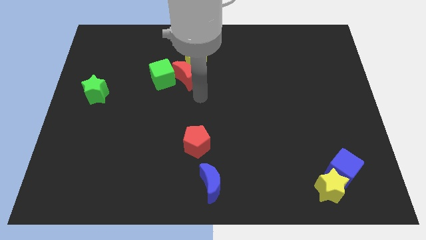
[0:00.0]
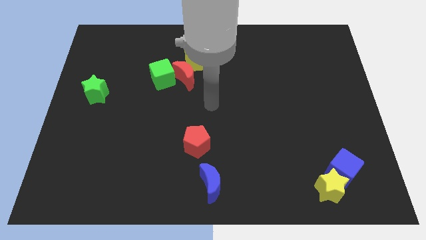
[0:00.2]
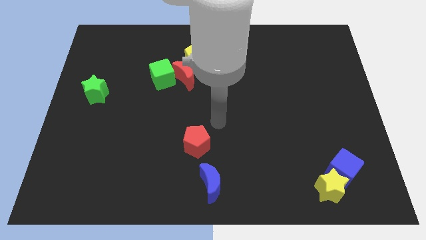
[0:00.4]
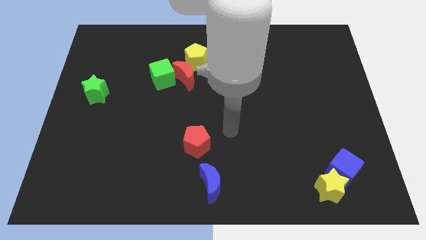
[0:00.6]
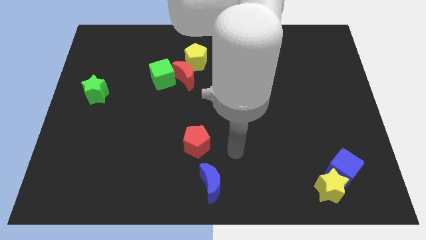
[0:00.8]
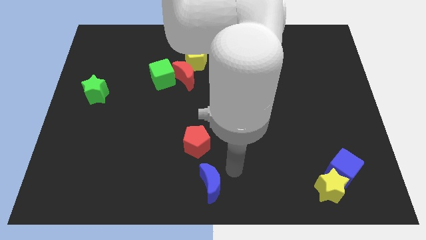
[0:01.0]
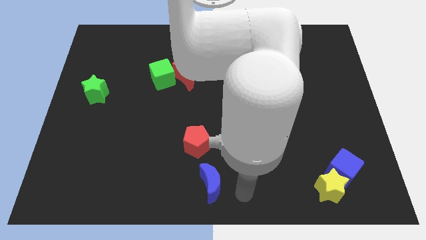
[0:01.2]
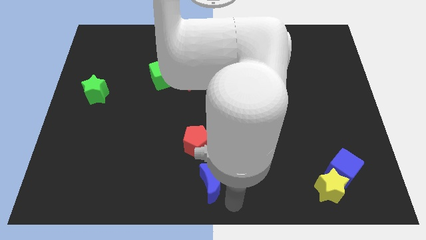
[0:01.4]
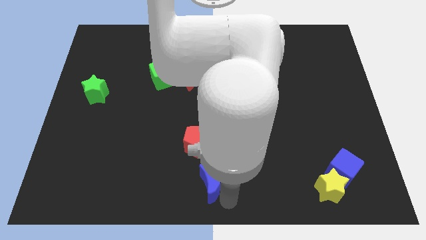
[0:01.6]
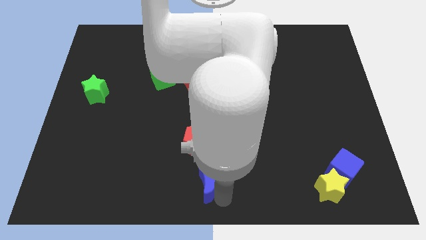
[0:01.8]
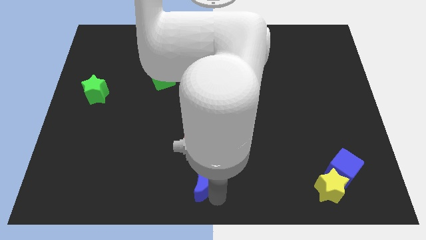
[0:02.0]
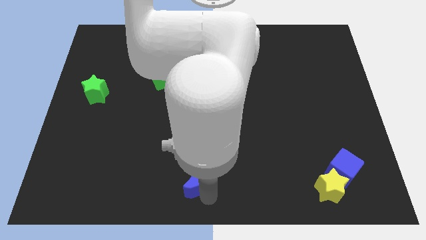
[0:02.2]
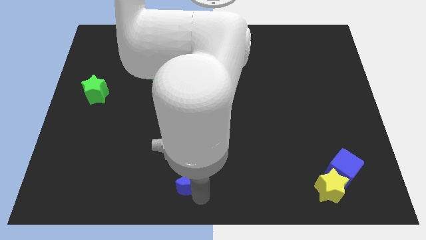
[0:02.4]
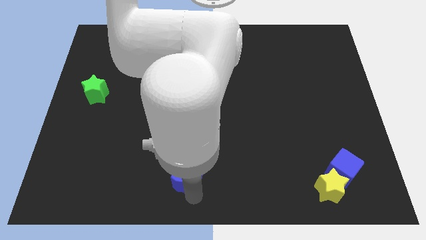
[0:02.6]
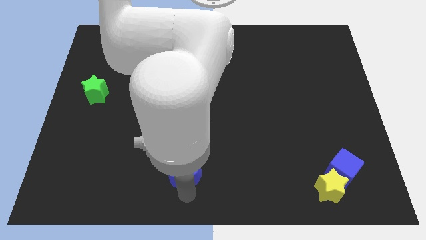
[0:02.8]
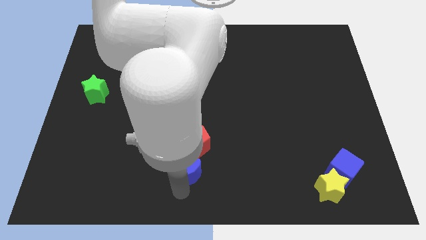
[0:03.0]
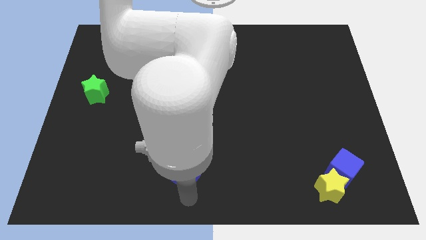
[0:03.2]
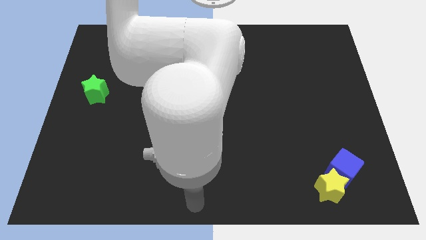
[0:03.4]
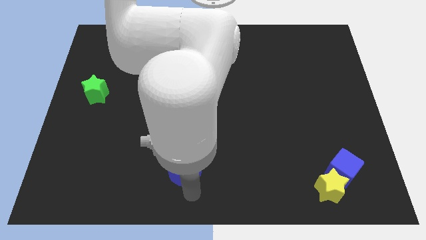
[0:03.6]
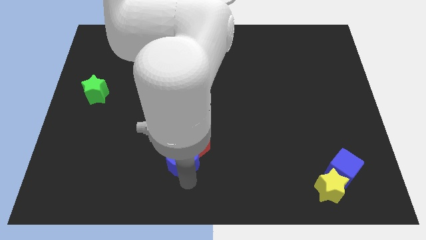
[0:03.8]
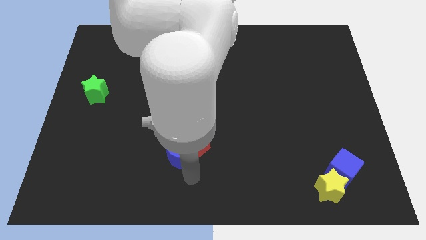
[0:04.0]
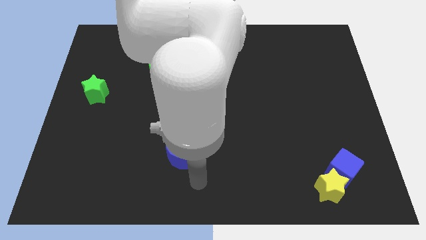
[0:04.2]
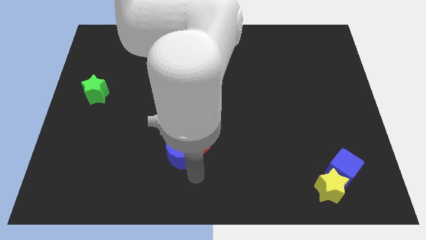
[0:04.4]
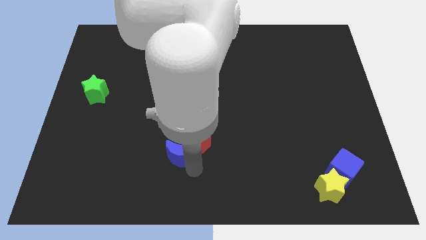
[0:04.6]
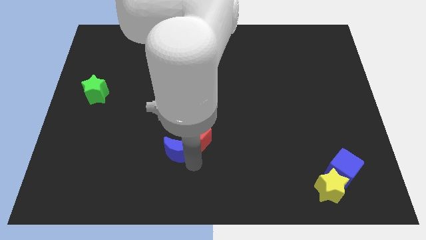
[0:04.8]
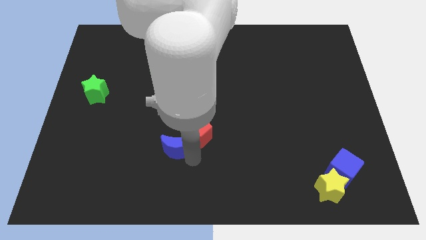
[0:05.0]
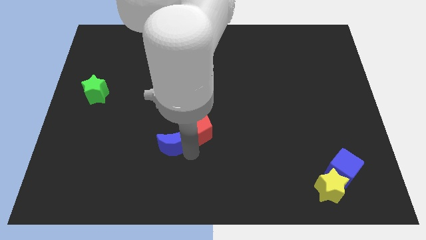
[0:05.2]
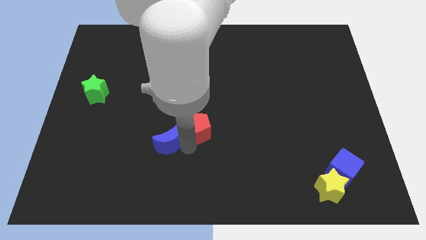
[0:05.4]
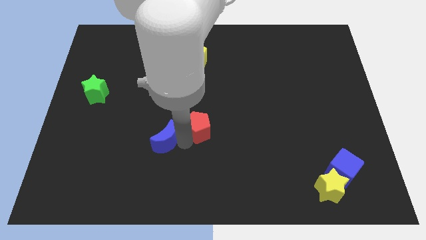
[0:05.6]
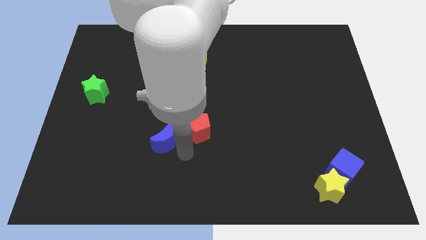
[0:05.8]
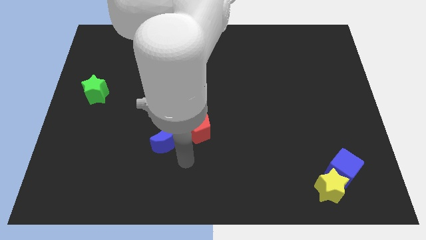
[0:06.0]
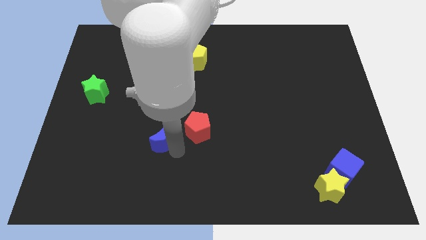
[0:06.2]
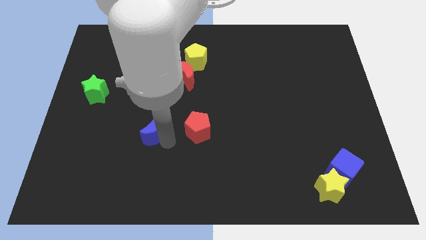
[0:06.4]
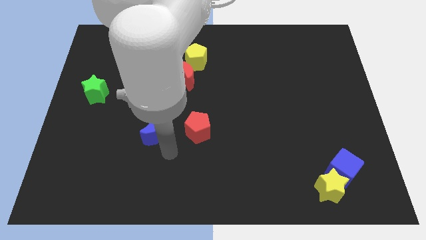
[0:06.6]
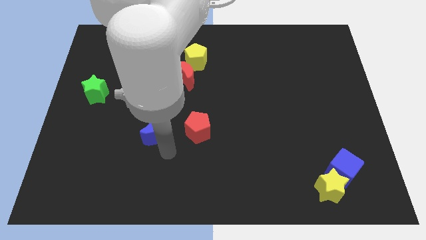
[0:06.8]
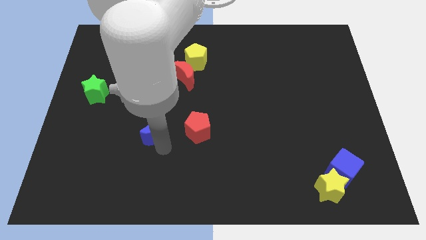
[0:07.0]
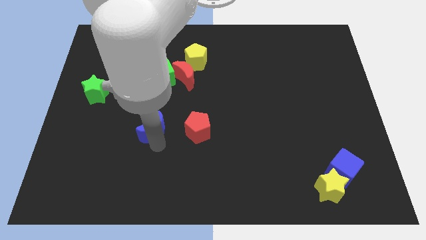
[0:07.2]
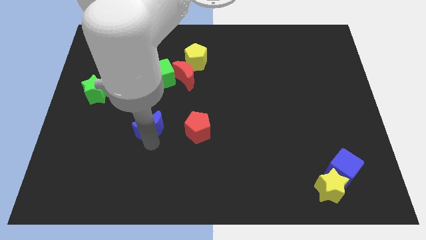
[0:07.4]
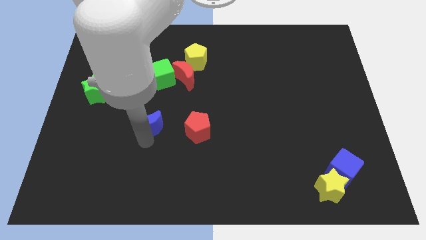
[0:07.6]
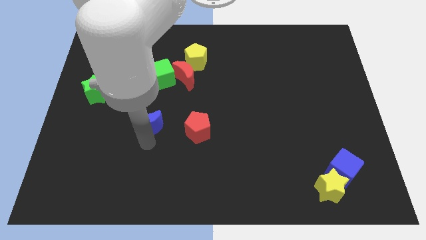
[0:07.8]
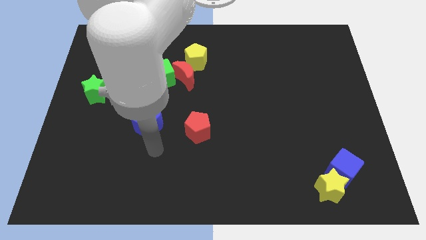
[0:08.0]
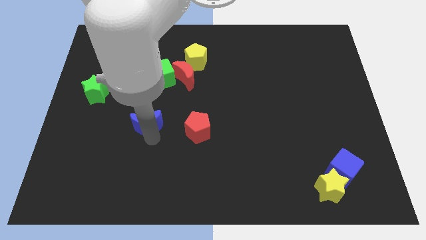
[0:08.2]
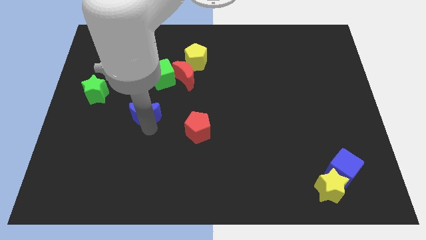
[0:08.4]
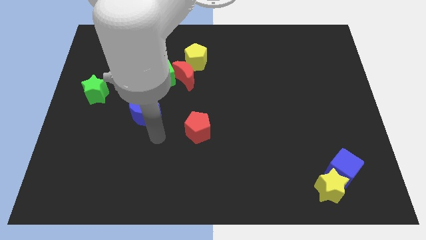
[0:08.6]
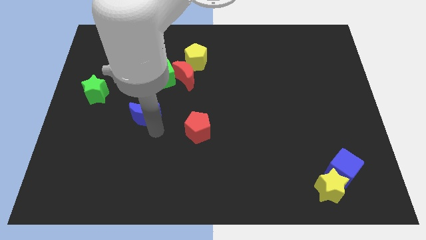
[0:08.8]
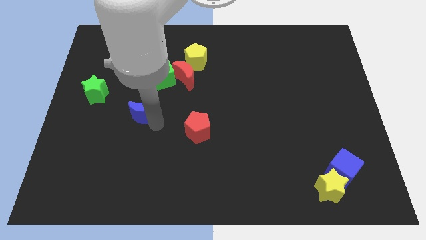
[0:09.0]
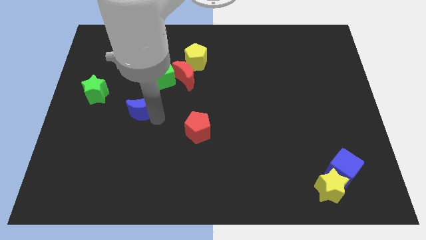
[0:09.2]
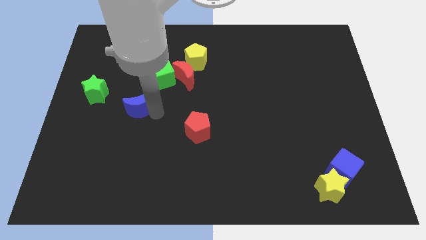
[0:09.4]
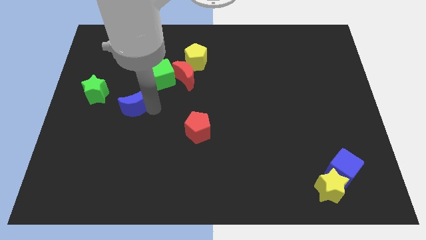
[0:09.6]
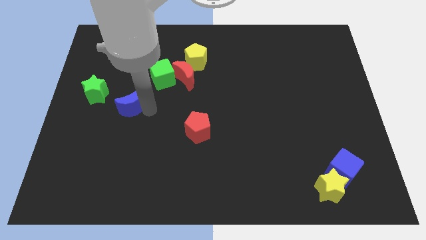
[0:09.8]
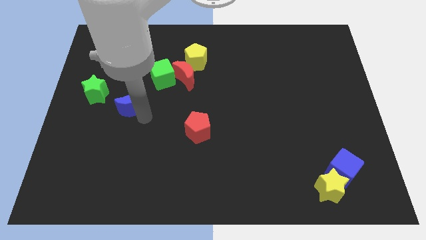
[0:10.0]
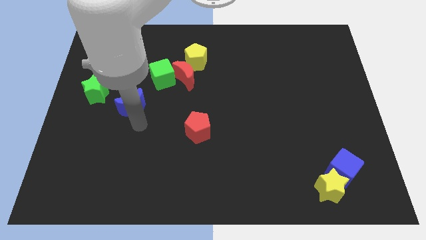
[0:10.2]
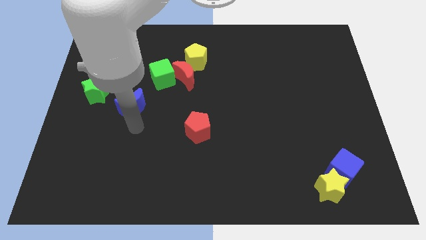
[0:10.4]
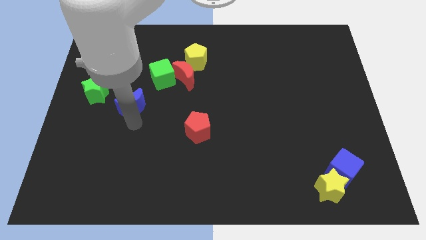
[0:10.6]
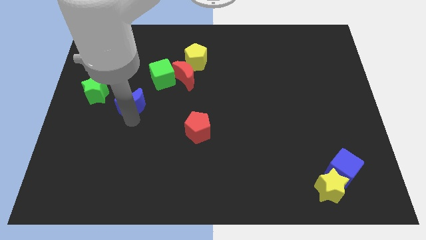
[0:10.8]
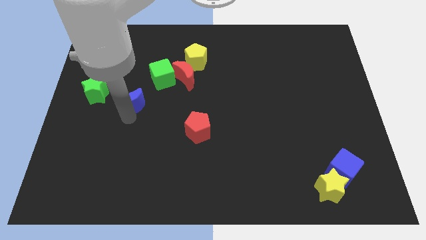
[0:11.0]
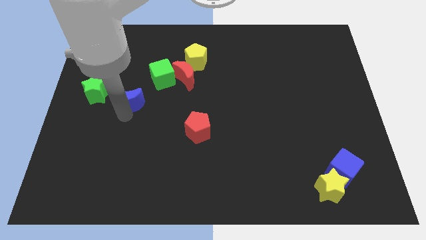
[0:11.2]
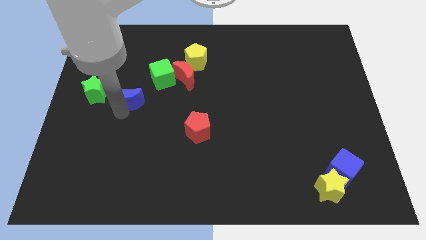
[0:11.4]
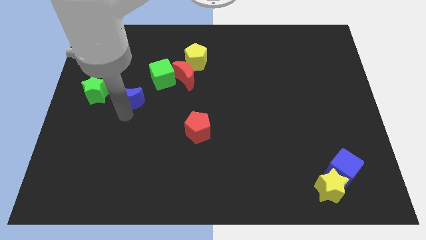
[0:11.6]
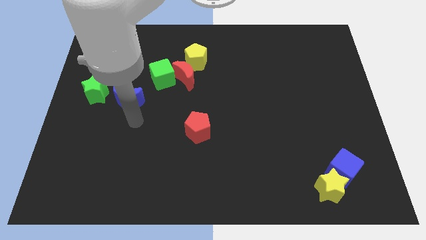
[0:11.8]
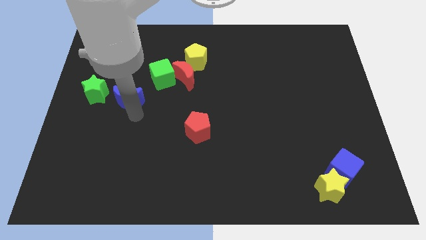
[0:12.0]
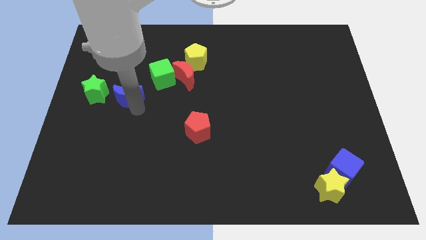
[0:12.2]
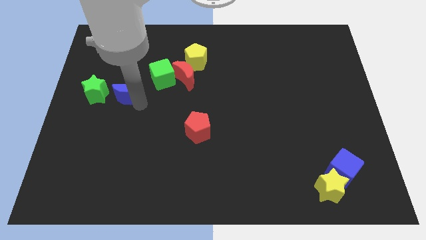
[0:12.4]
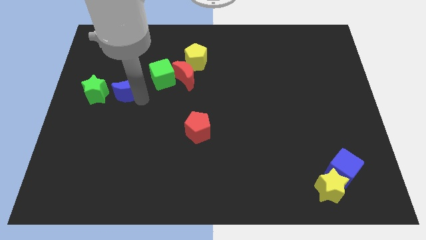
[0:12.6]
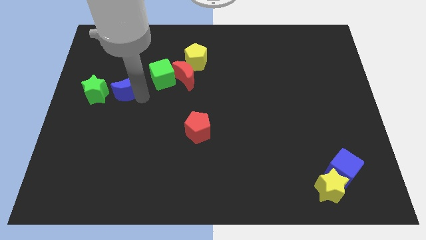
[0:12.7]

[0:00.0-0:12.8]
slide the blue moon just left of the green cube
